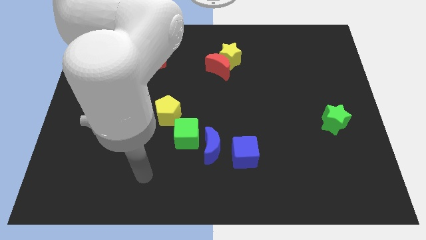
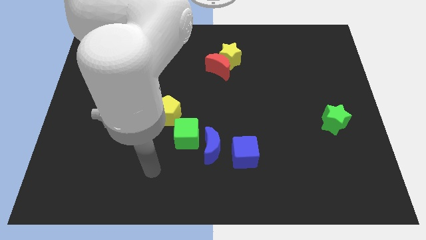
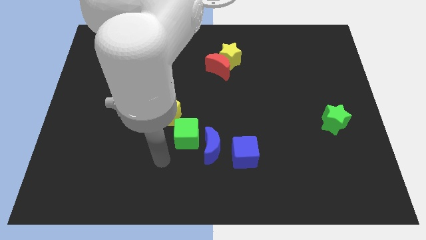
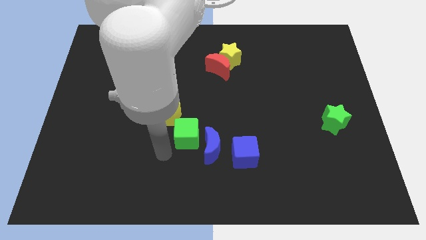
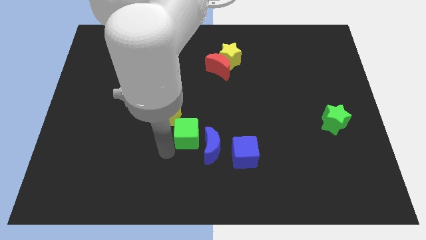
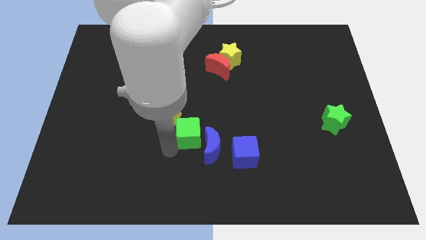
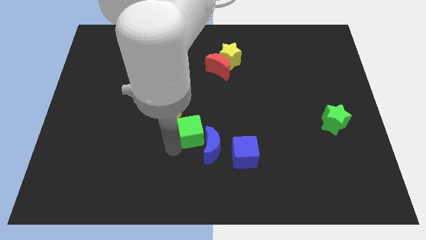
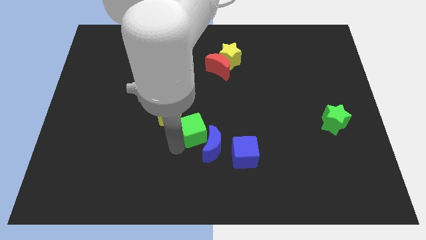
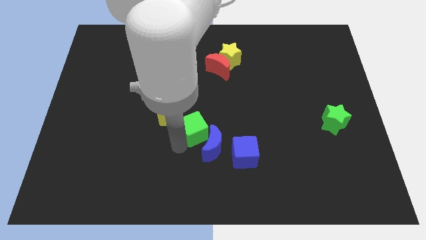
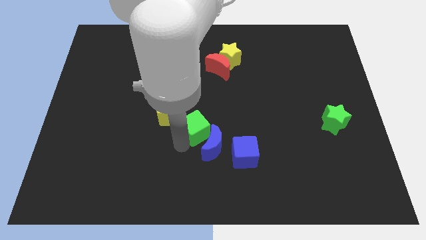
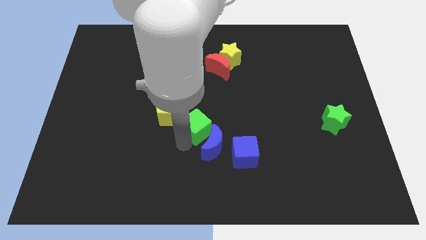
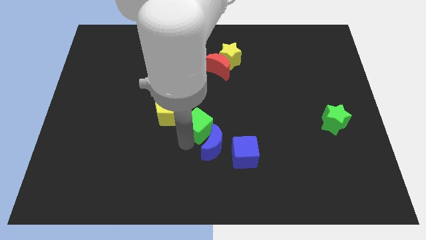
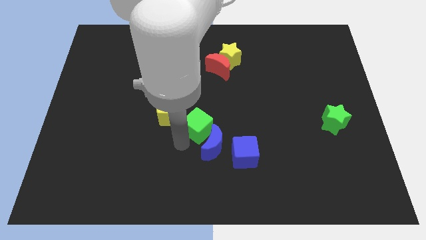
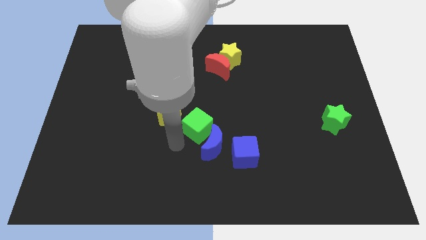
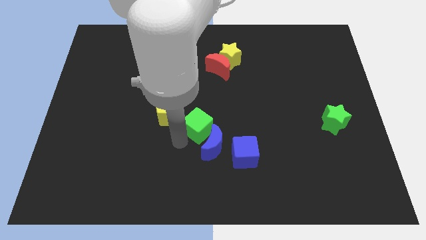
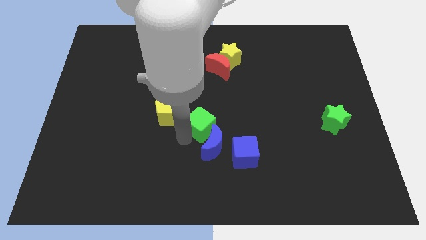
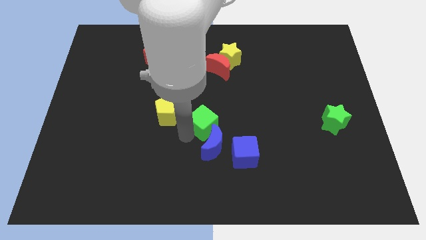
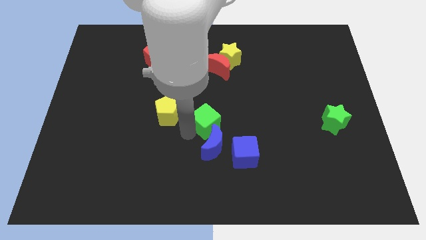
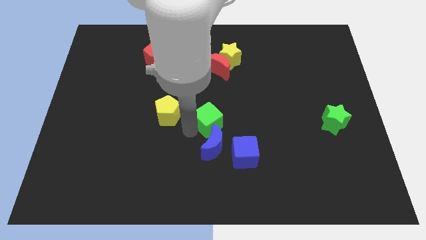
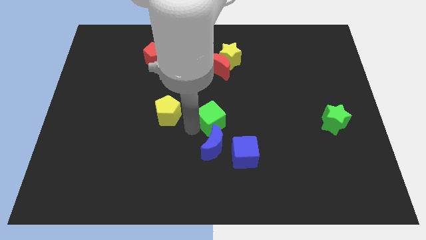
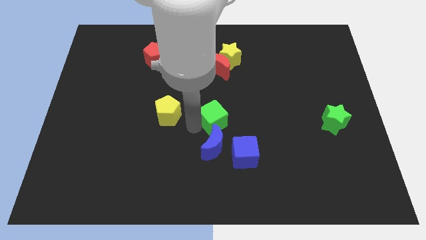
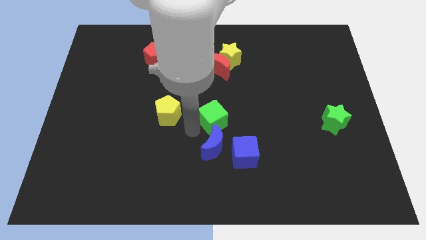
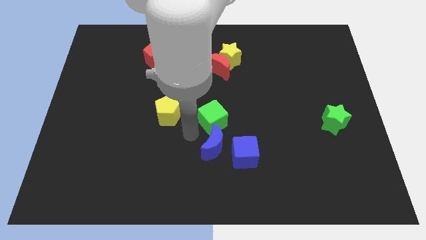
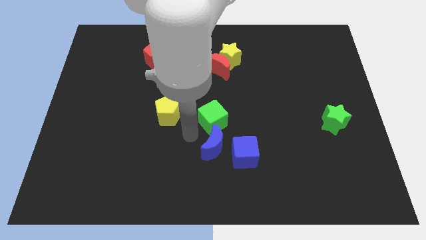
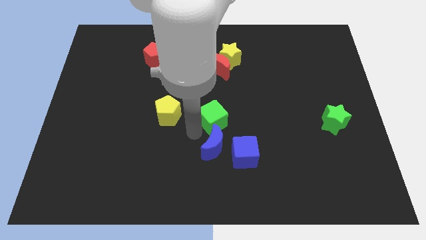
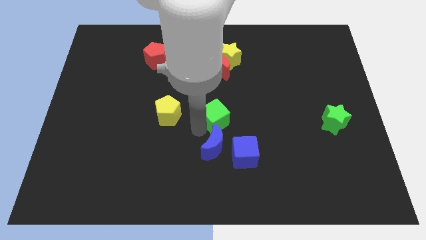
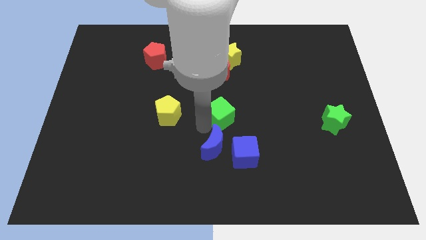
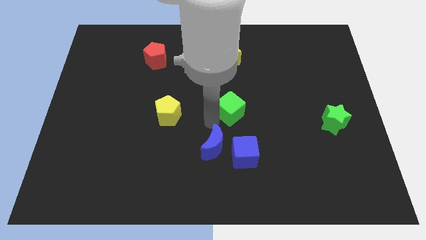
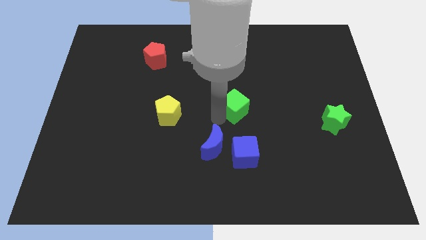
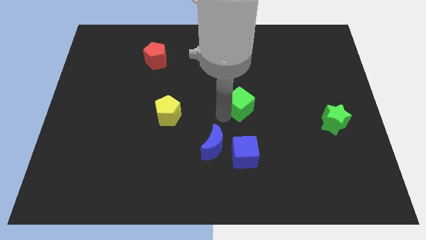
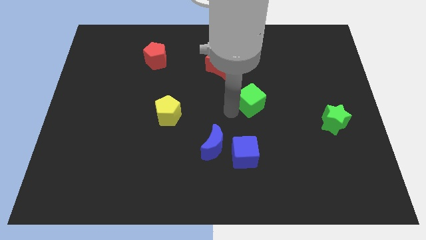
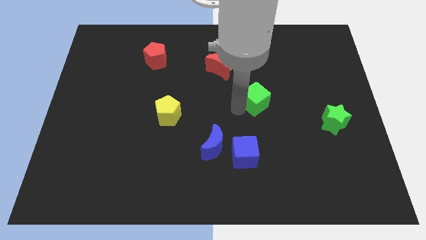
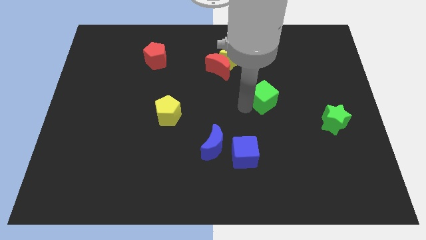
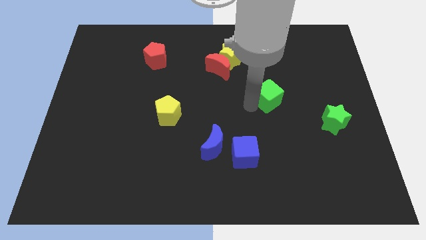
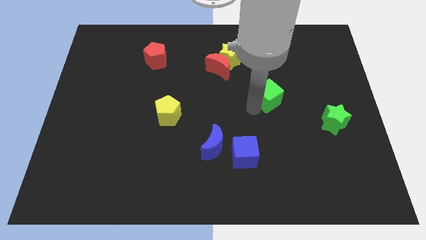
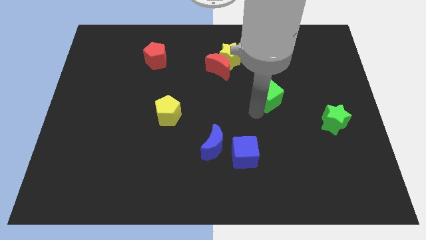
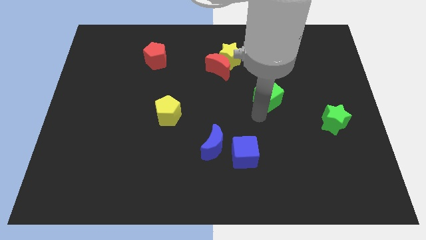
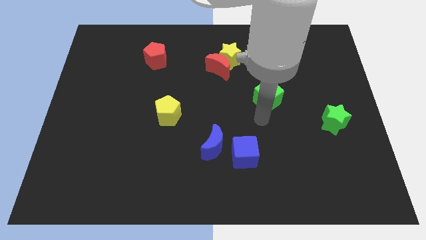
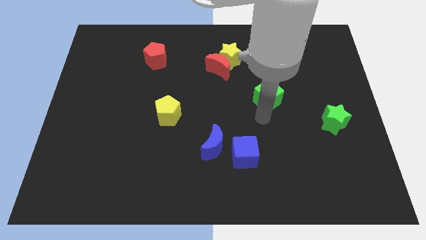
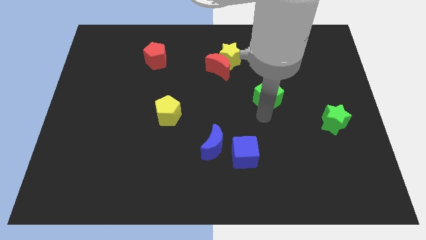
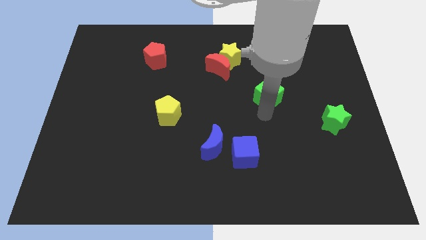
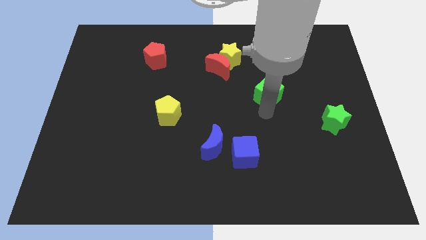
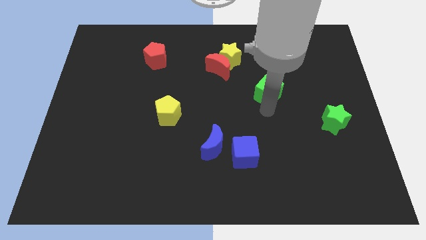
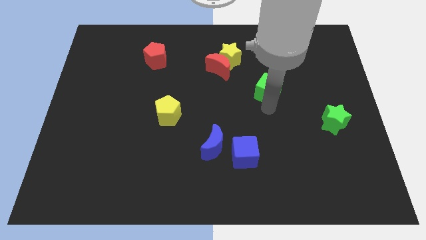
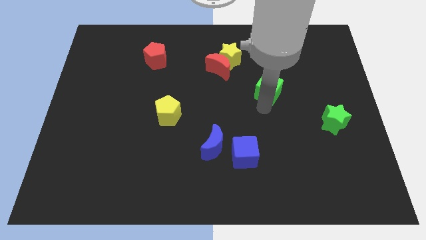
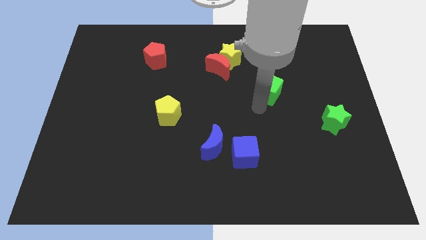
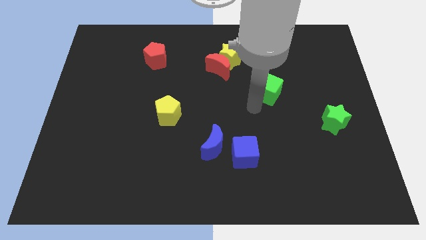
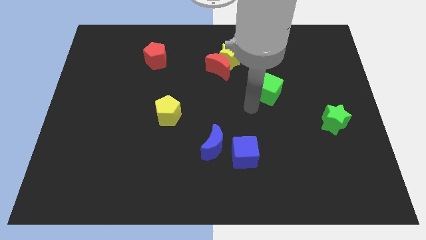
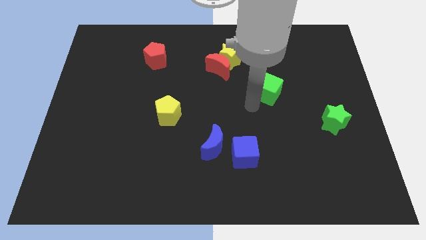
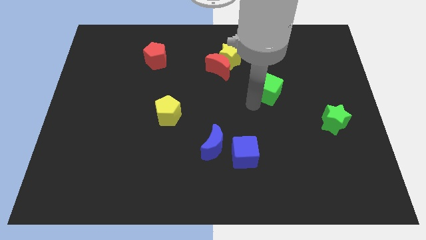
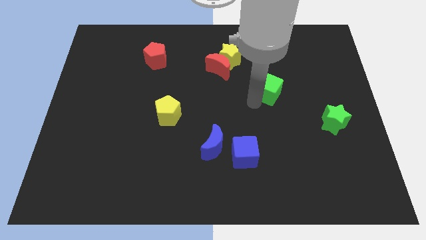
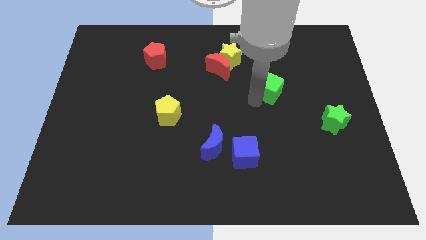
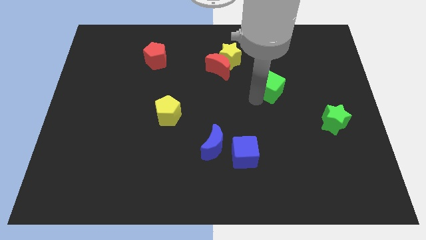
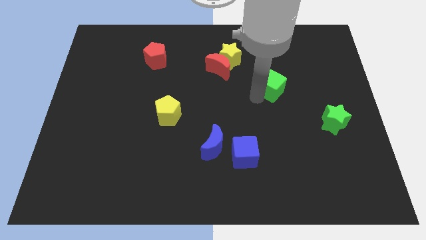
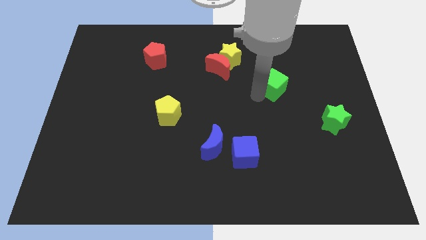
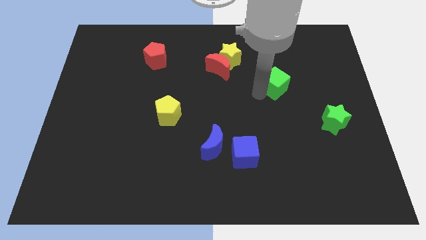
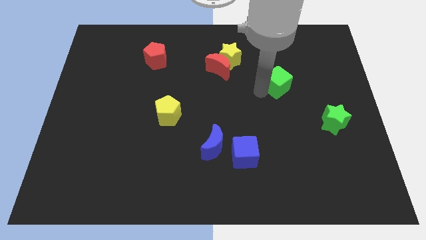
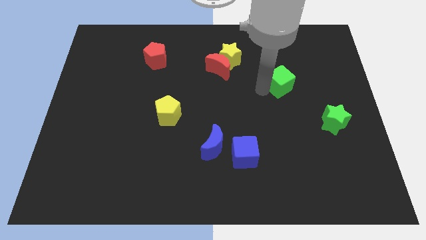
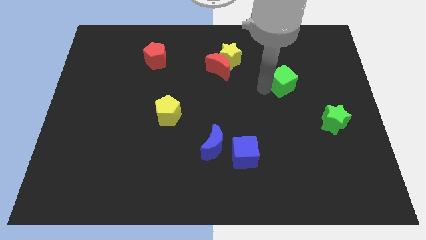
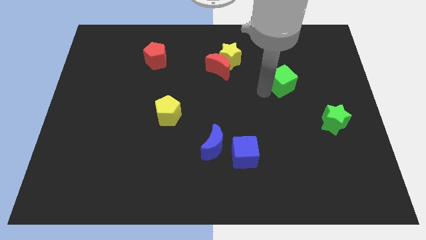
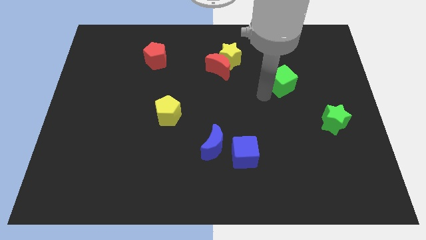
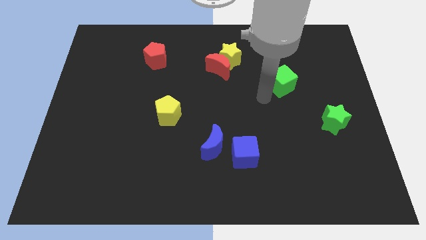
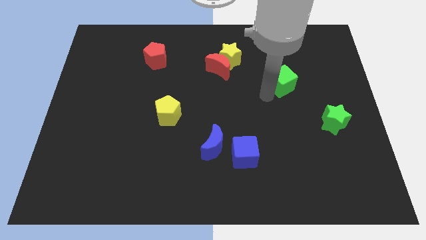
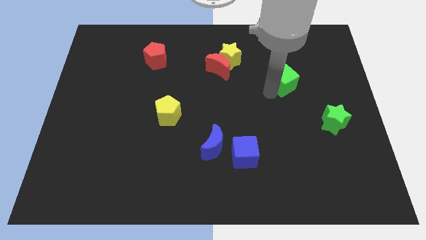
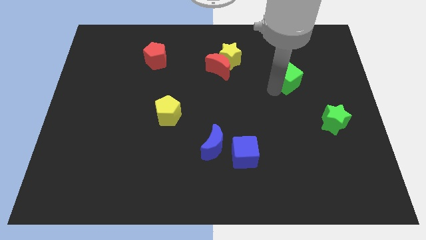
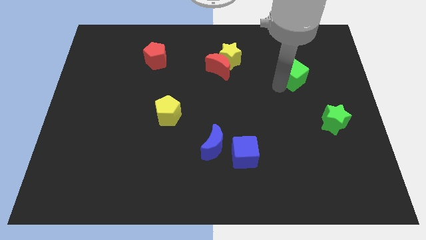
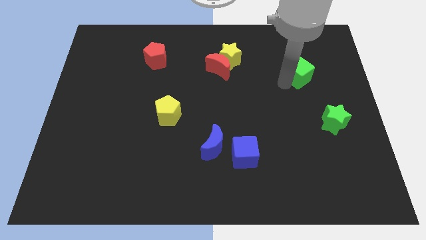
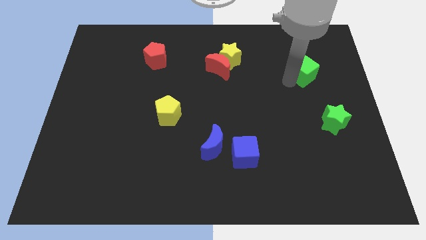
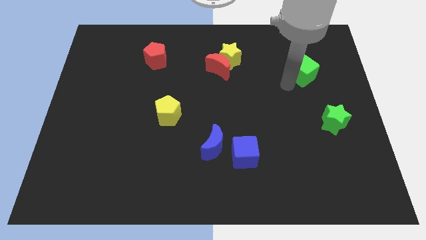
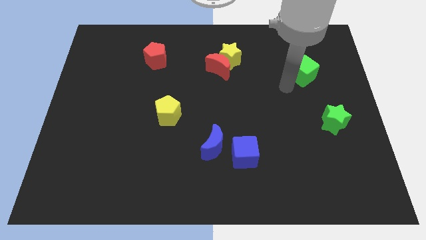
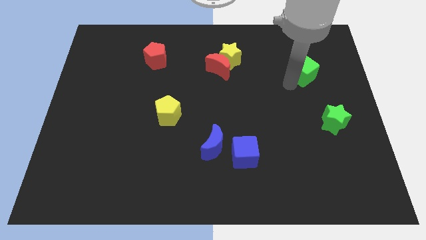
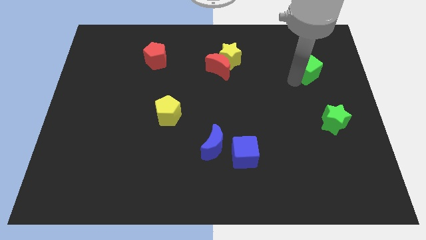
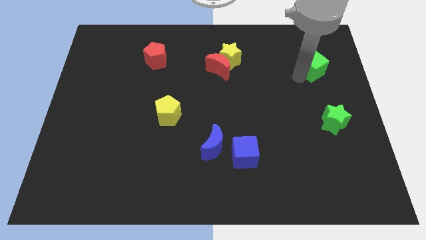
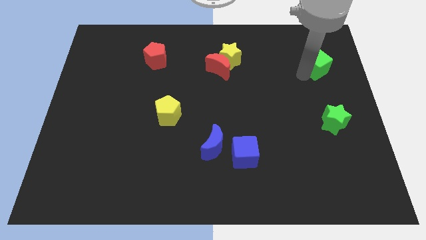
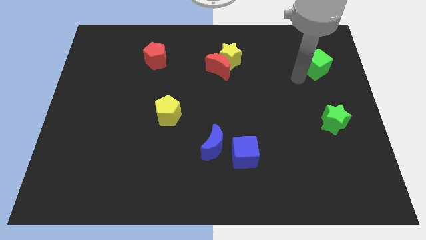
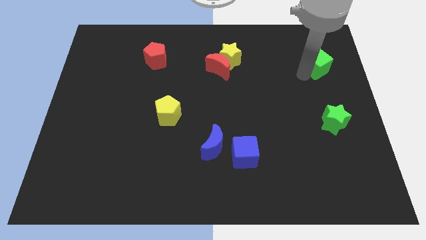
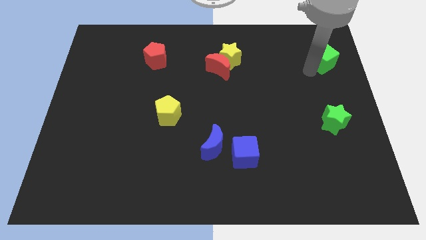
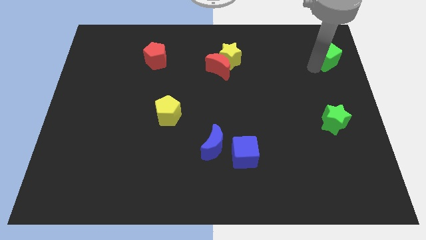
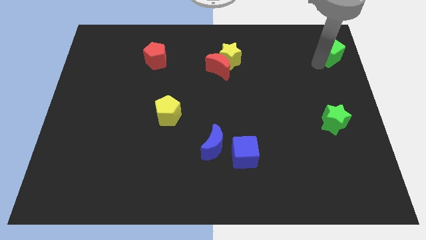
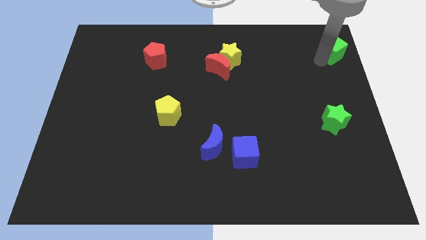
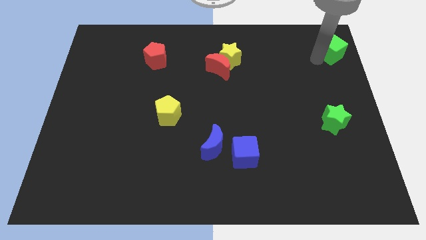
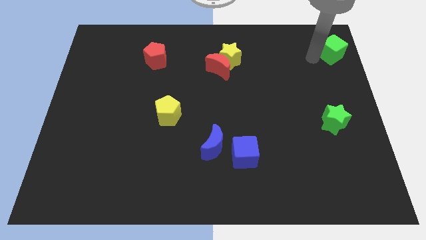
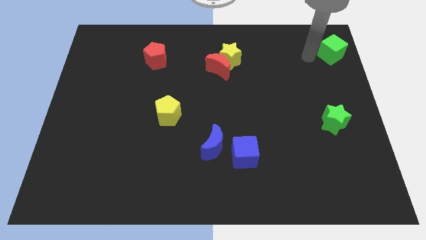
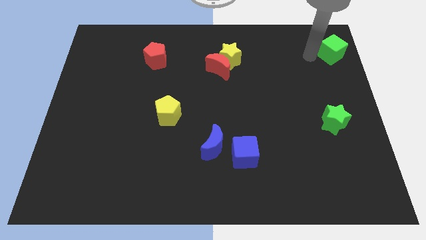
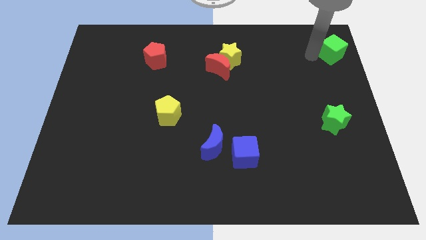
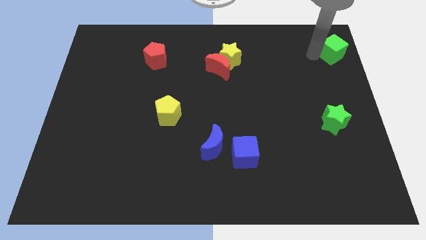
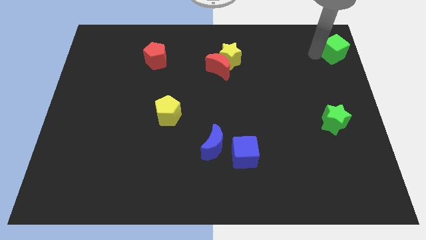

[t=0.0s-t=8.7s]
move the green cube to the top right of the board
